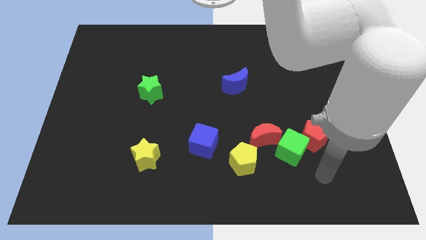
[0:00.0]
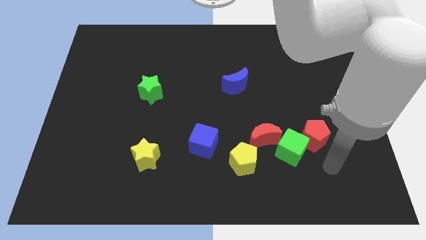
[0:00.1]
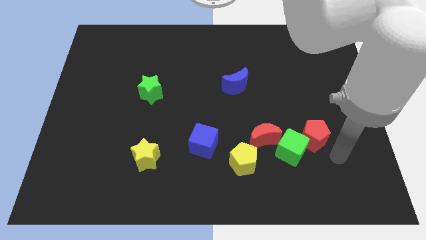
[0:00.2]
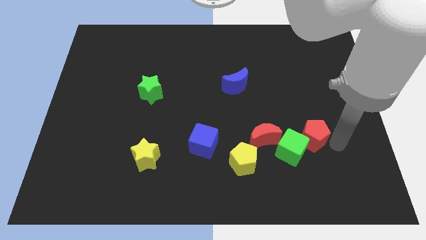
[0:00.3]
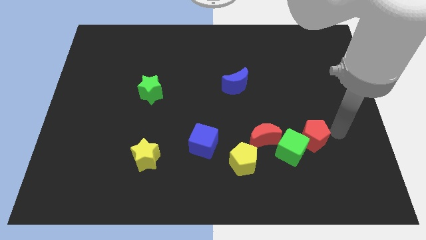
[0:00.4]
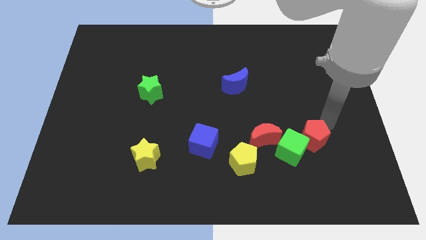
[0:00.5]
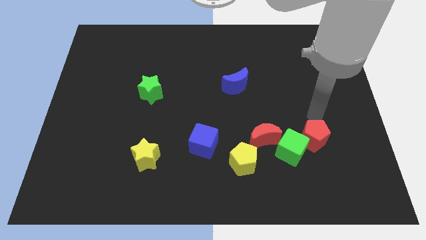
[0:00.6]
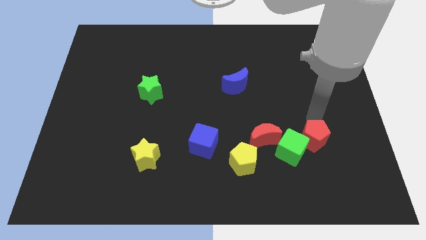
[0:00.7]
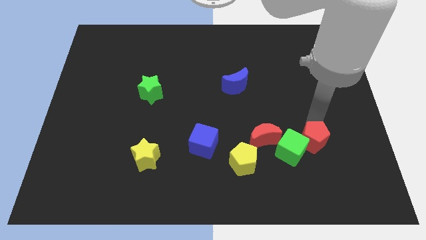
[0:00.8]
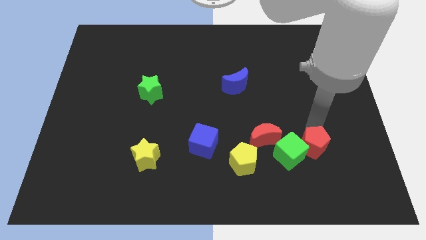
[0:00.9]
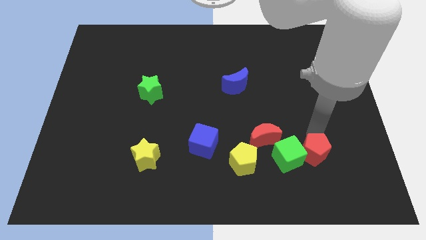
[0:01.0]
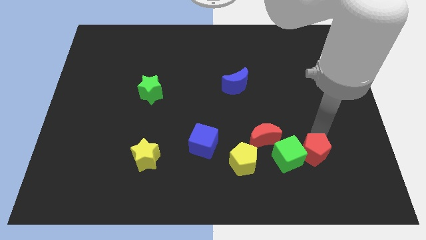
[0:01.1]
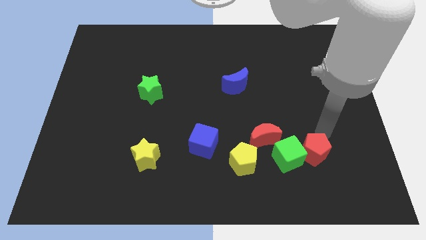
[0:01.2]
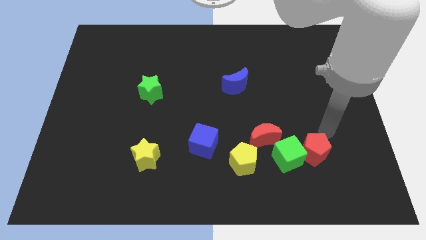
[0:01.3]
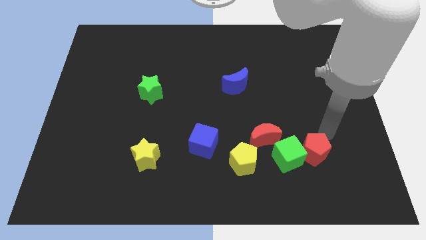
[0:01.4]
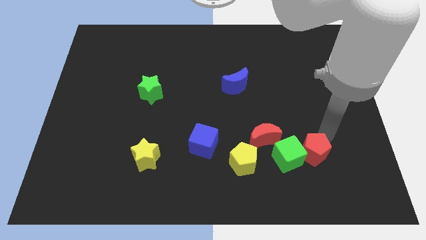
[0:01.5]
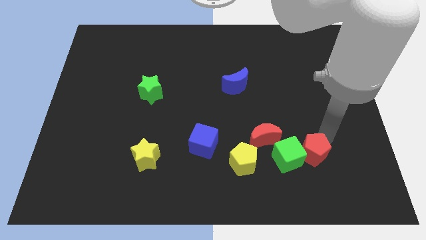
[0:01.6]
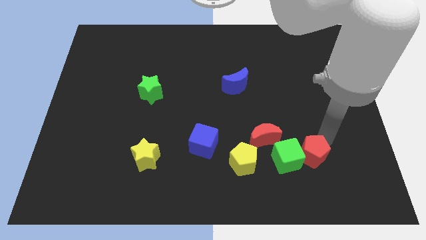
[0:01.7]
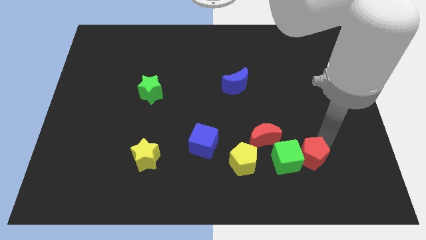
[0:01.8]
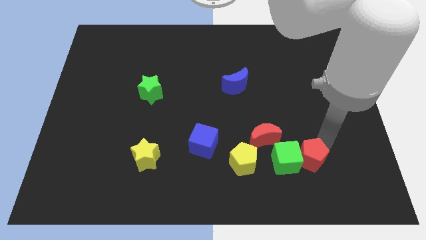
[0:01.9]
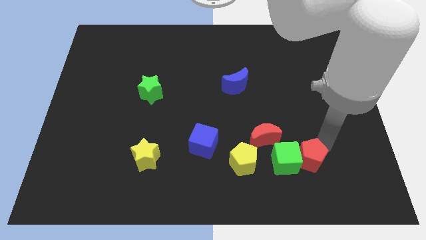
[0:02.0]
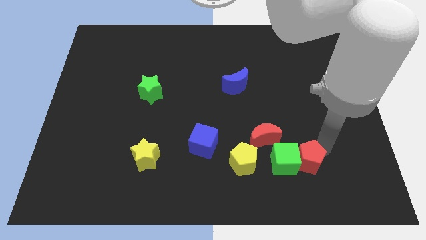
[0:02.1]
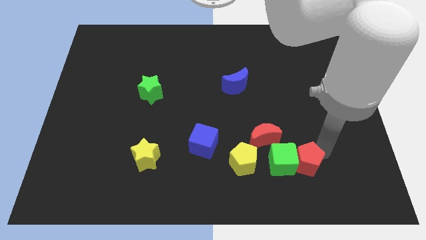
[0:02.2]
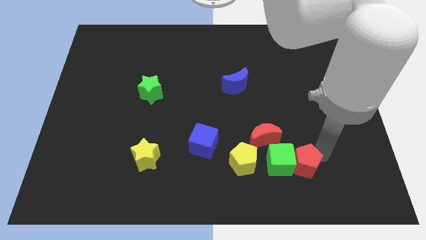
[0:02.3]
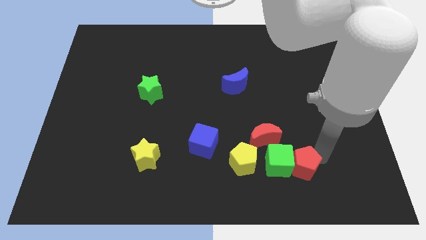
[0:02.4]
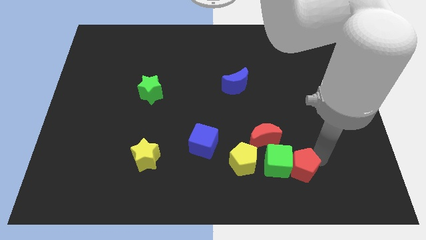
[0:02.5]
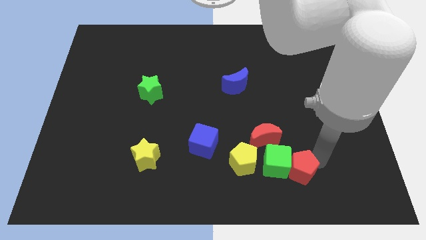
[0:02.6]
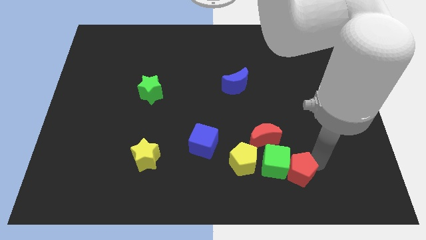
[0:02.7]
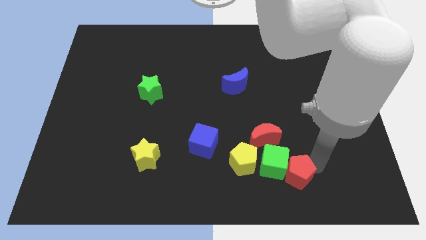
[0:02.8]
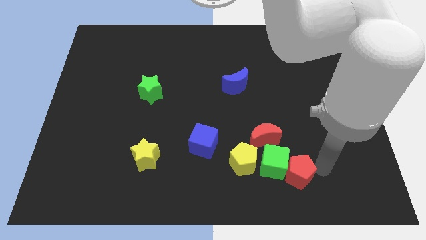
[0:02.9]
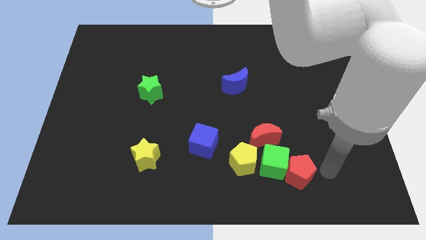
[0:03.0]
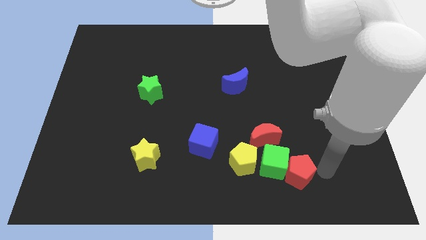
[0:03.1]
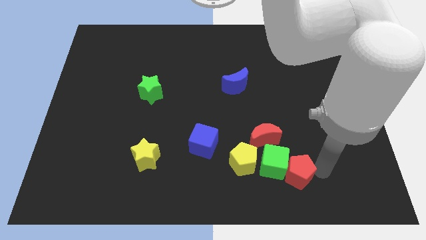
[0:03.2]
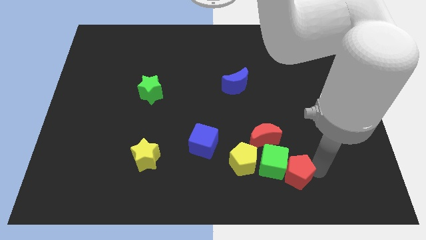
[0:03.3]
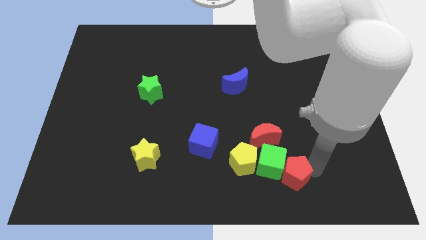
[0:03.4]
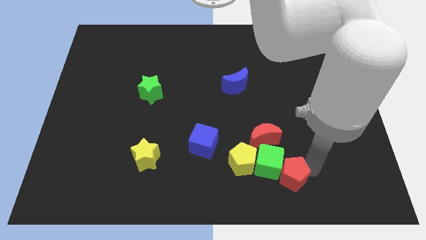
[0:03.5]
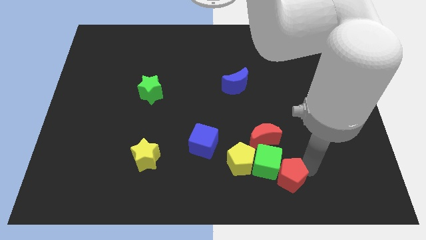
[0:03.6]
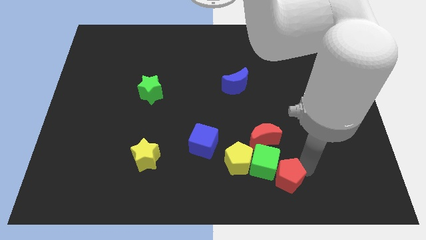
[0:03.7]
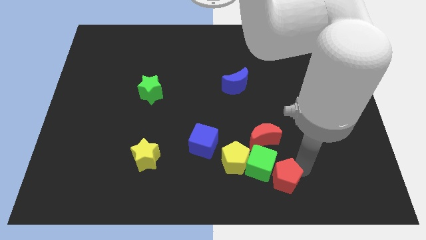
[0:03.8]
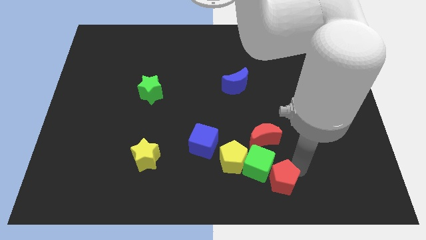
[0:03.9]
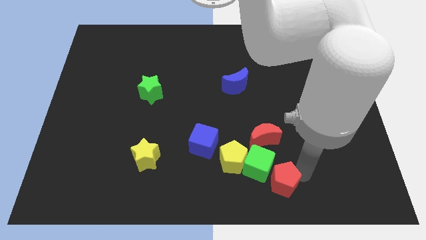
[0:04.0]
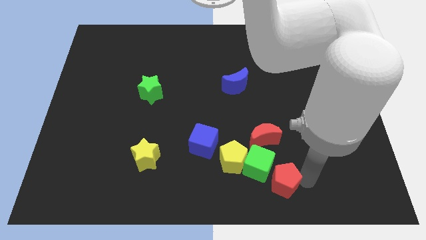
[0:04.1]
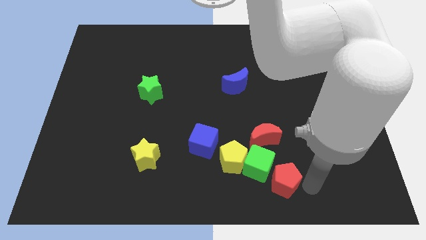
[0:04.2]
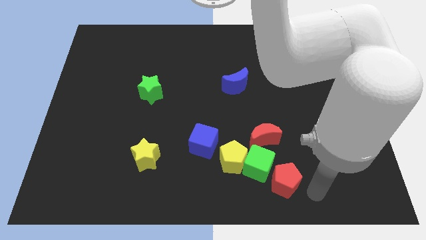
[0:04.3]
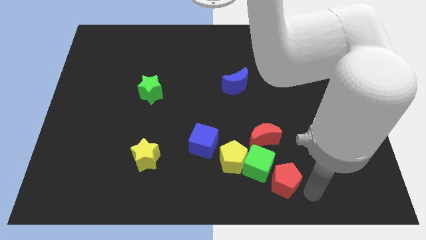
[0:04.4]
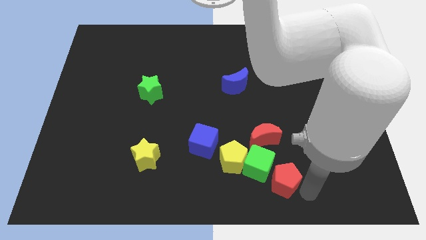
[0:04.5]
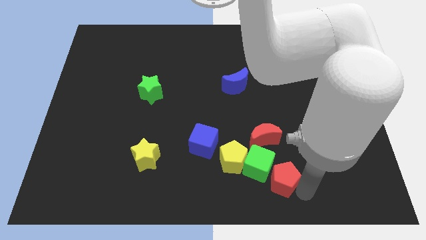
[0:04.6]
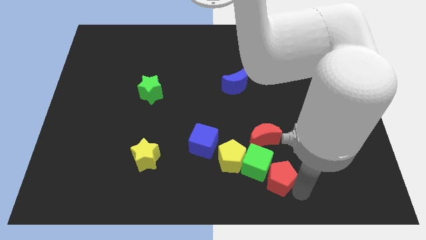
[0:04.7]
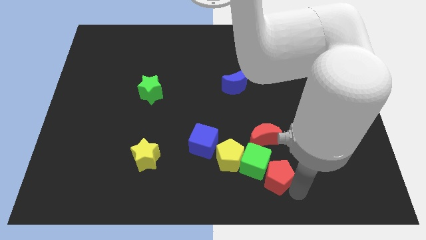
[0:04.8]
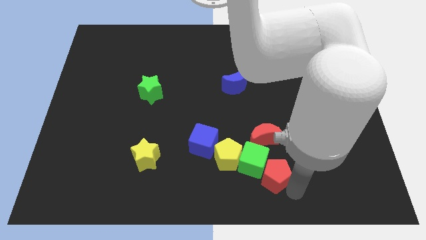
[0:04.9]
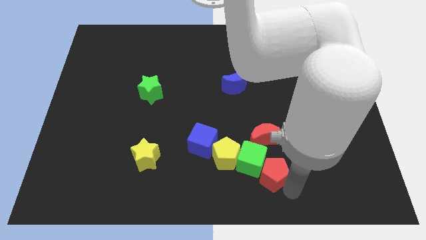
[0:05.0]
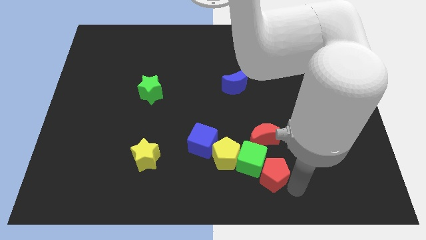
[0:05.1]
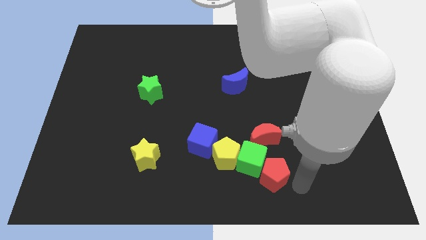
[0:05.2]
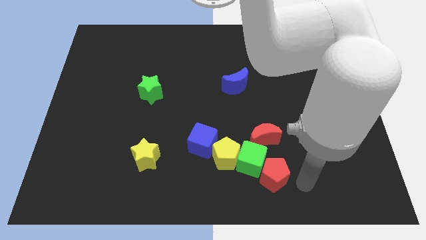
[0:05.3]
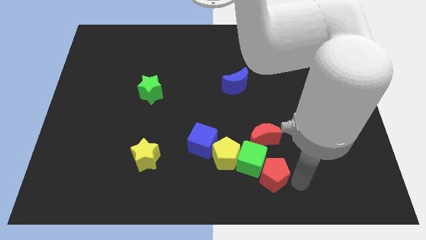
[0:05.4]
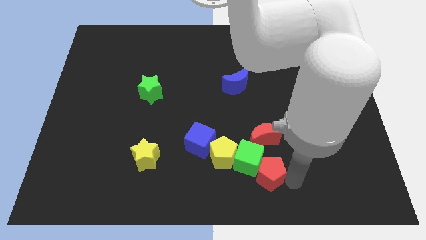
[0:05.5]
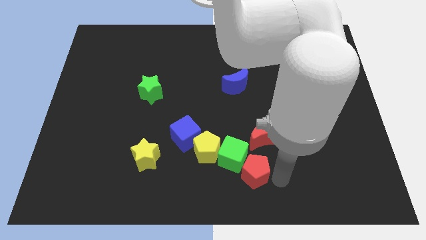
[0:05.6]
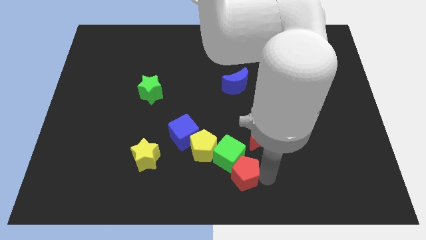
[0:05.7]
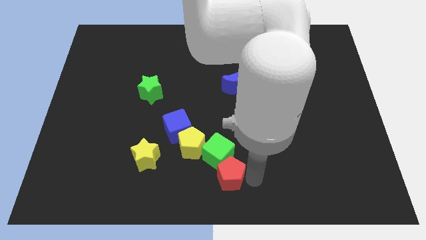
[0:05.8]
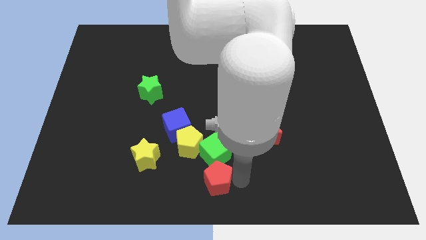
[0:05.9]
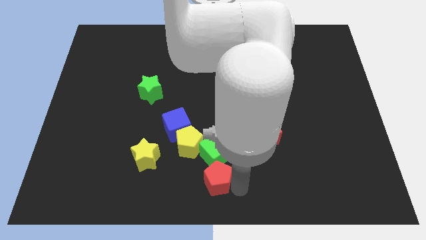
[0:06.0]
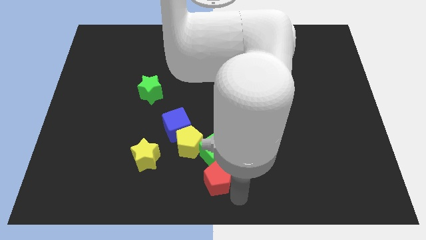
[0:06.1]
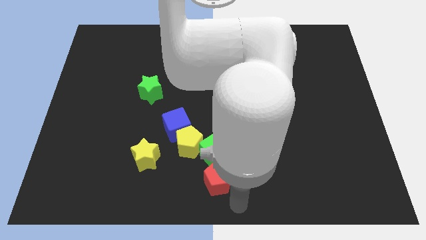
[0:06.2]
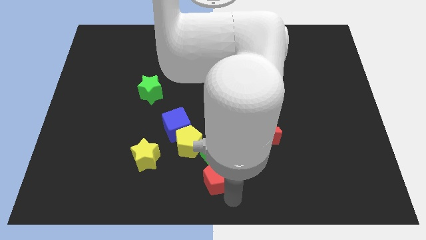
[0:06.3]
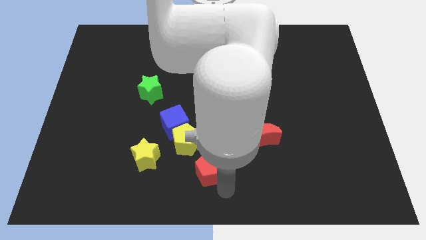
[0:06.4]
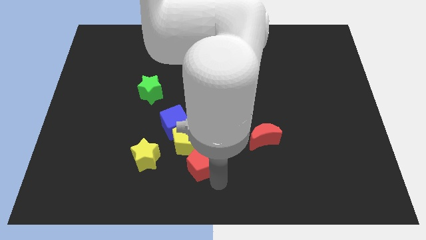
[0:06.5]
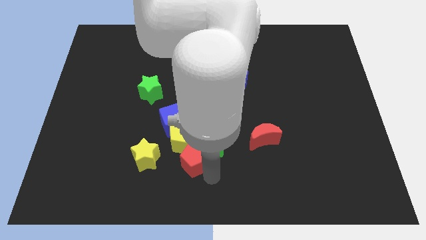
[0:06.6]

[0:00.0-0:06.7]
move the red pentagon next to the yellow pentagon

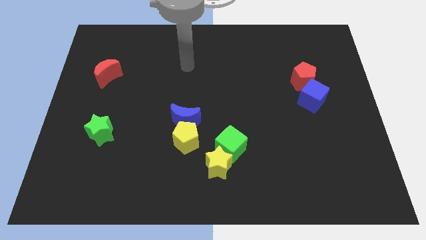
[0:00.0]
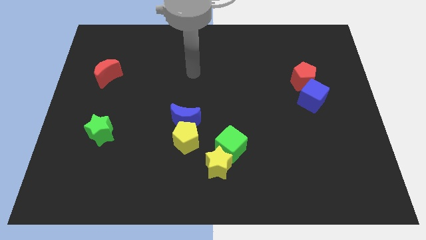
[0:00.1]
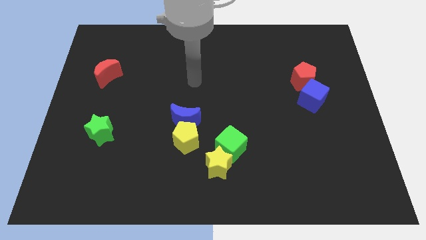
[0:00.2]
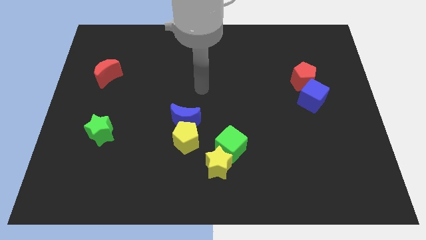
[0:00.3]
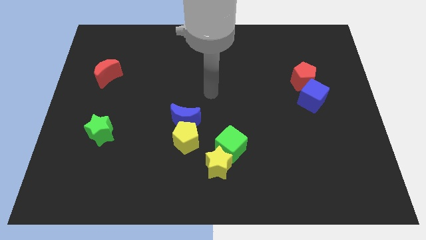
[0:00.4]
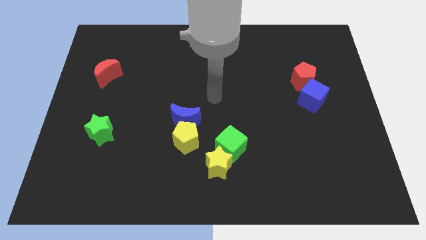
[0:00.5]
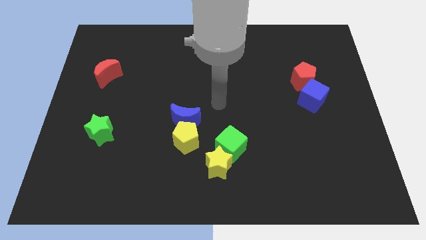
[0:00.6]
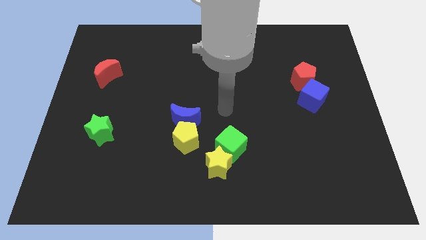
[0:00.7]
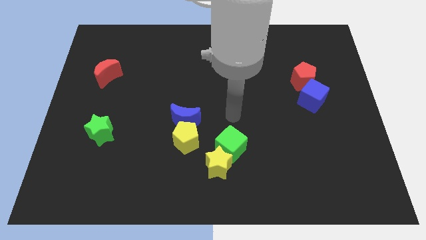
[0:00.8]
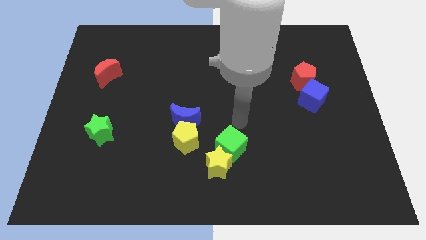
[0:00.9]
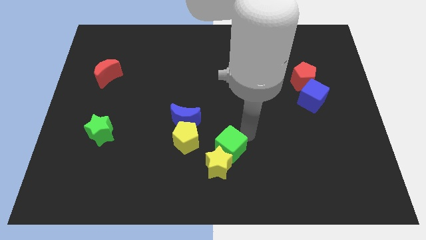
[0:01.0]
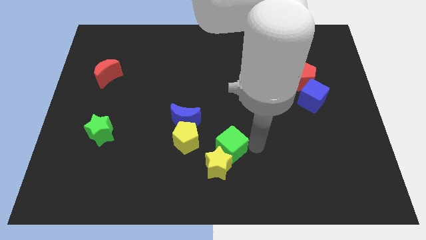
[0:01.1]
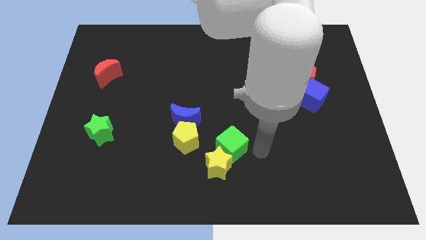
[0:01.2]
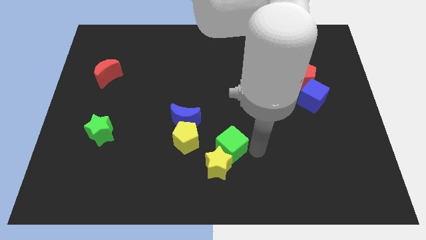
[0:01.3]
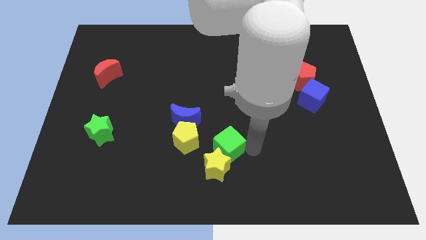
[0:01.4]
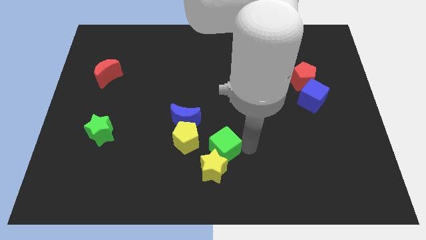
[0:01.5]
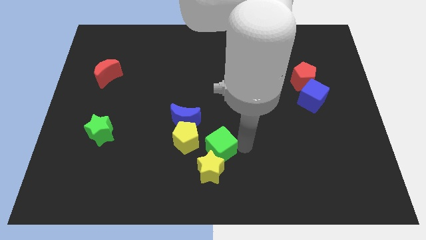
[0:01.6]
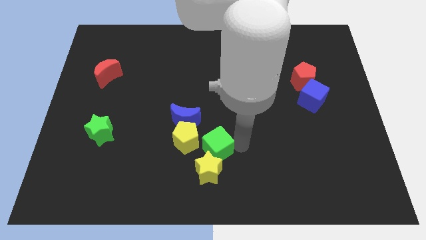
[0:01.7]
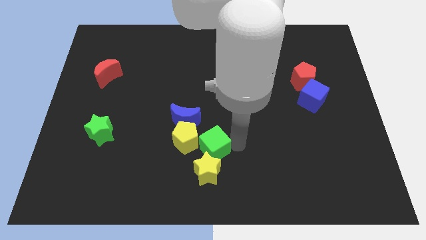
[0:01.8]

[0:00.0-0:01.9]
slide the green cube next to the yellow pentagon
